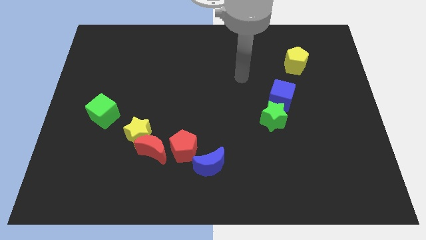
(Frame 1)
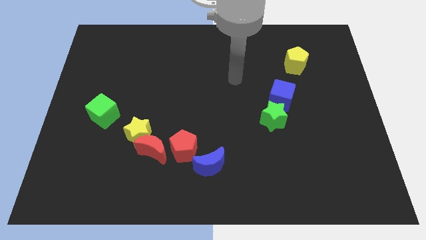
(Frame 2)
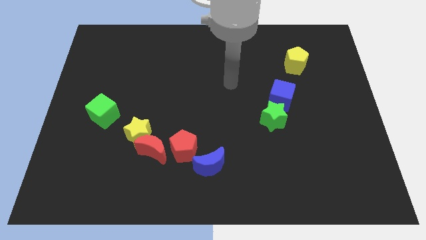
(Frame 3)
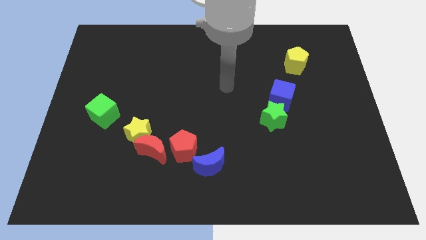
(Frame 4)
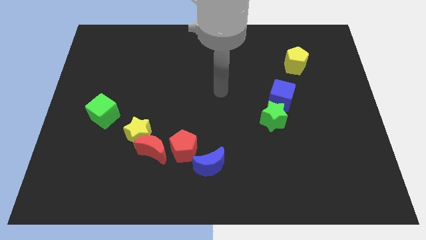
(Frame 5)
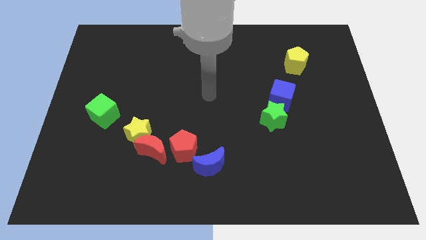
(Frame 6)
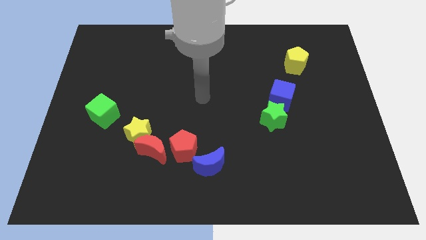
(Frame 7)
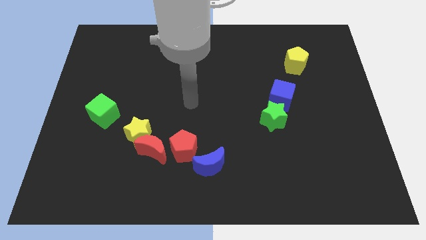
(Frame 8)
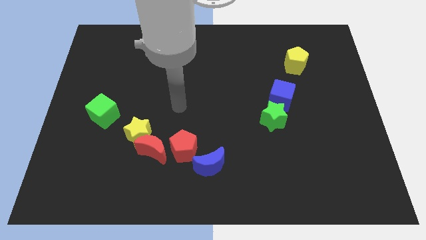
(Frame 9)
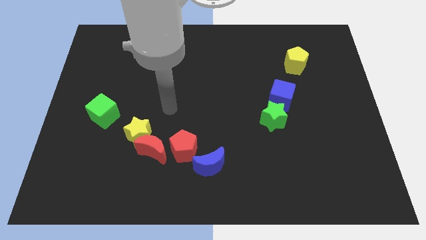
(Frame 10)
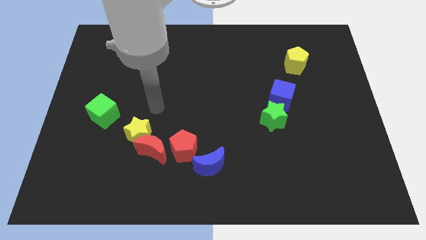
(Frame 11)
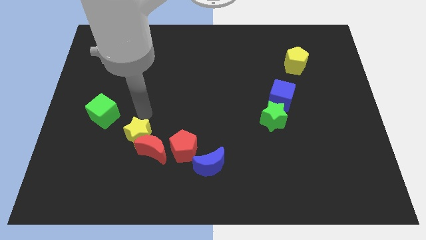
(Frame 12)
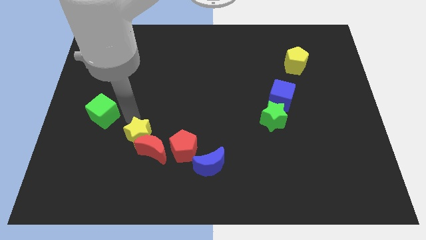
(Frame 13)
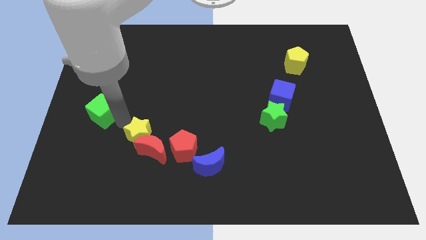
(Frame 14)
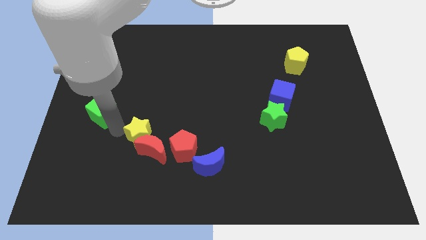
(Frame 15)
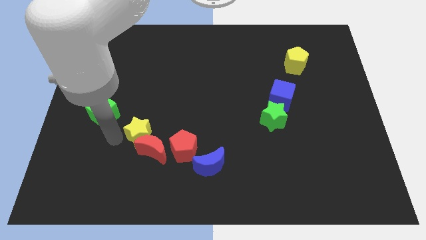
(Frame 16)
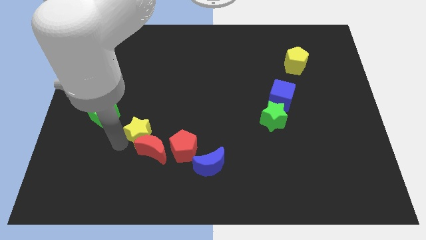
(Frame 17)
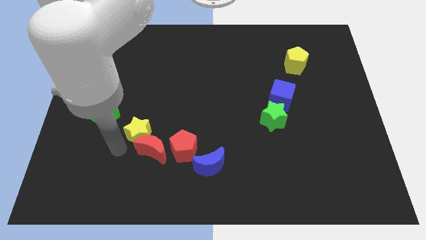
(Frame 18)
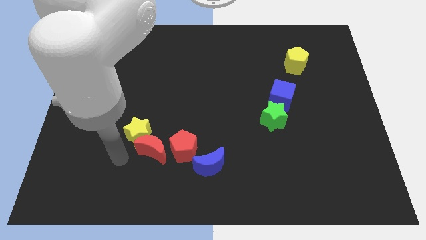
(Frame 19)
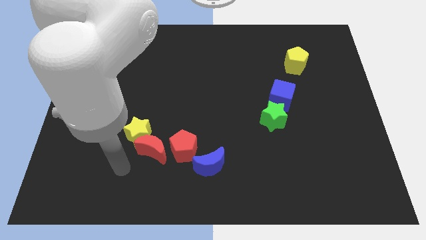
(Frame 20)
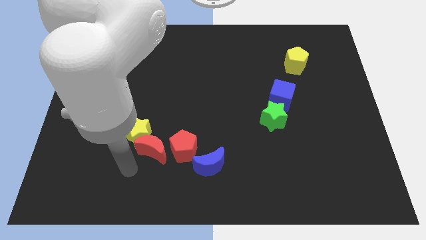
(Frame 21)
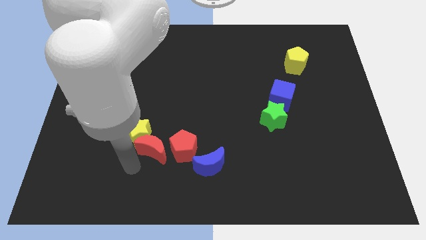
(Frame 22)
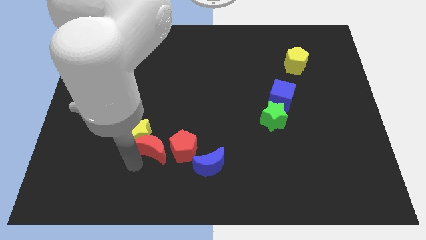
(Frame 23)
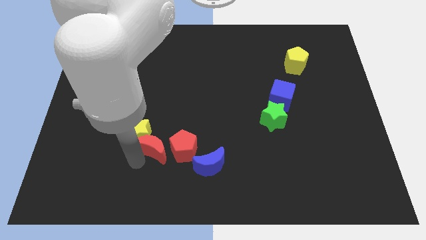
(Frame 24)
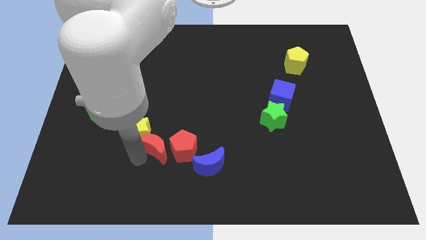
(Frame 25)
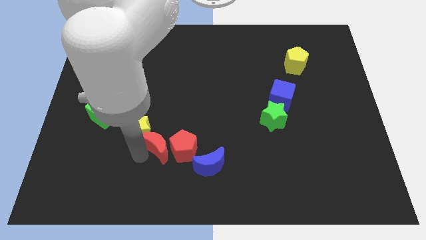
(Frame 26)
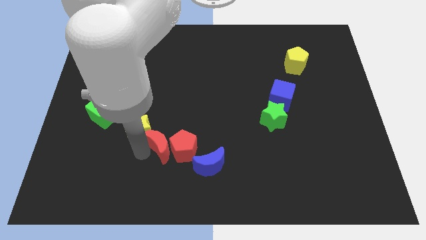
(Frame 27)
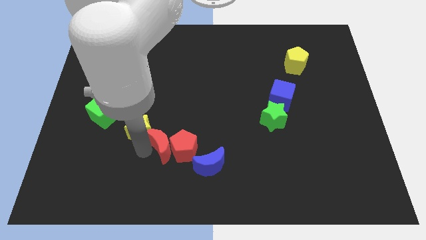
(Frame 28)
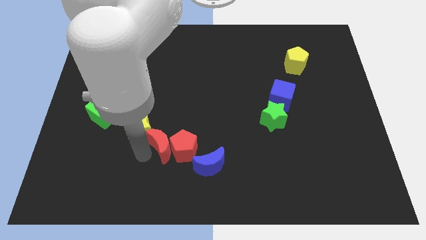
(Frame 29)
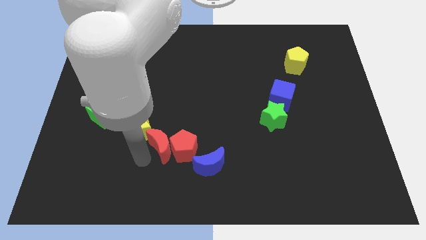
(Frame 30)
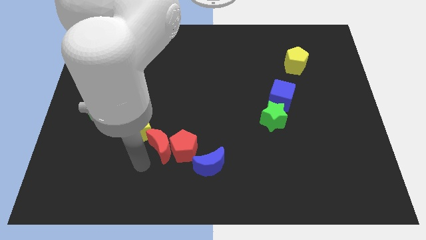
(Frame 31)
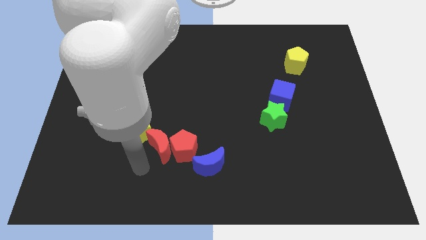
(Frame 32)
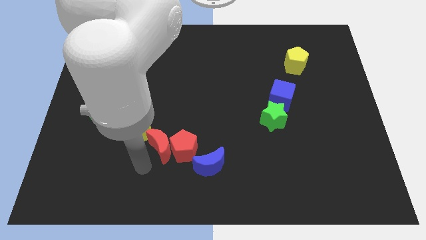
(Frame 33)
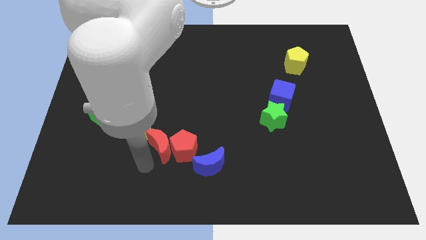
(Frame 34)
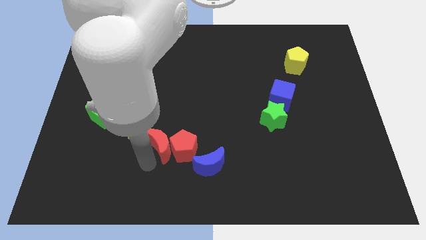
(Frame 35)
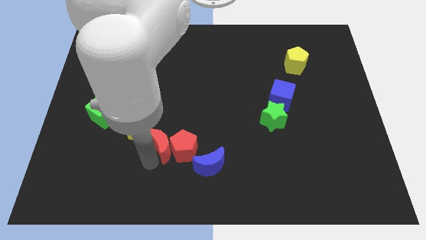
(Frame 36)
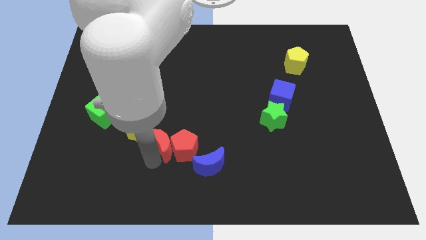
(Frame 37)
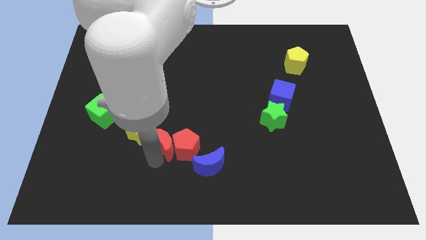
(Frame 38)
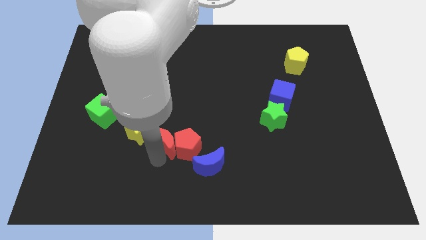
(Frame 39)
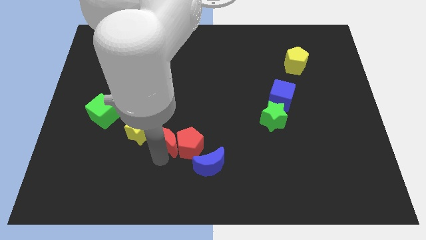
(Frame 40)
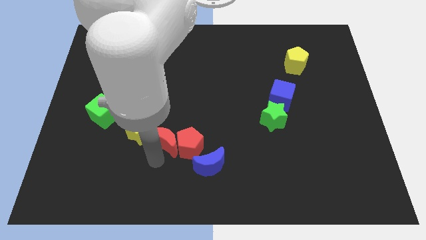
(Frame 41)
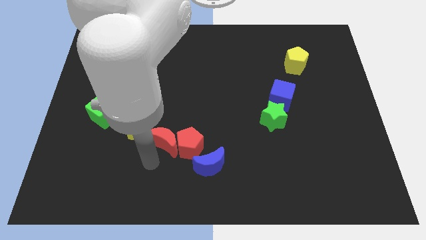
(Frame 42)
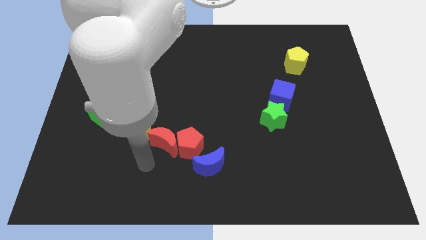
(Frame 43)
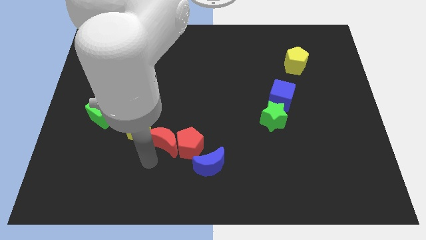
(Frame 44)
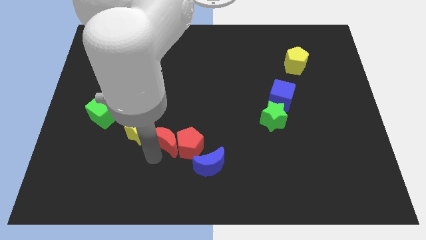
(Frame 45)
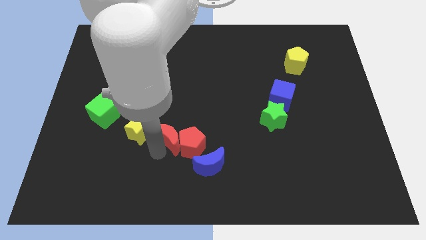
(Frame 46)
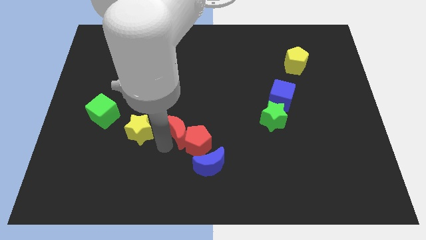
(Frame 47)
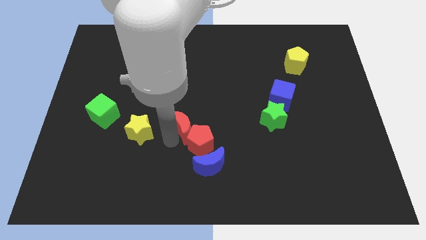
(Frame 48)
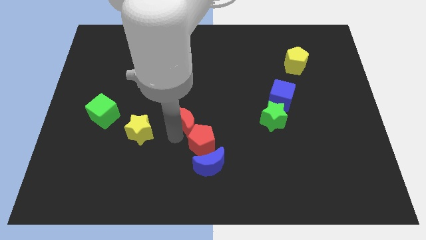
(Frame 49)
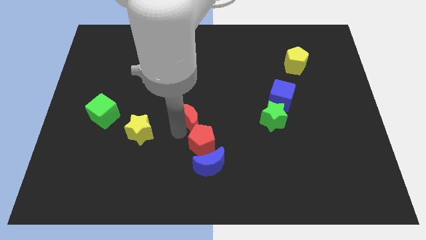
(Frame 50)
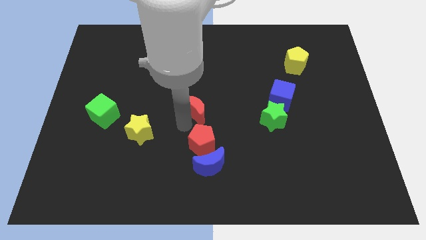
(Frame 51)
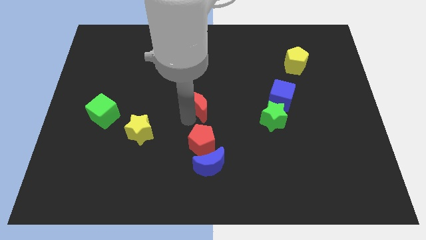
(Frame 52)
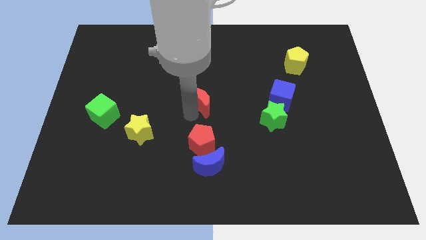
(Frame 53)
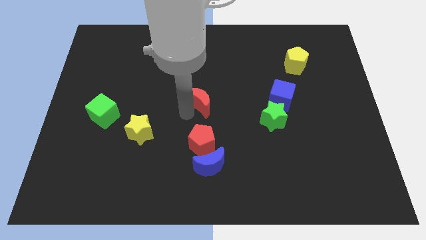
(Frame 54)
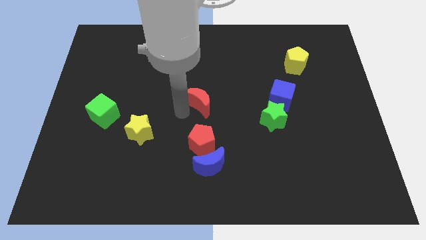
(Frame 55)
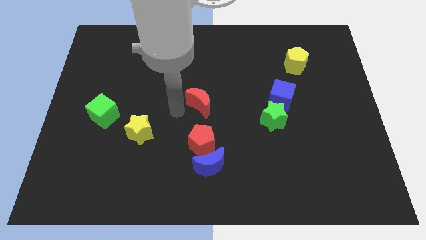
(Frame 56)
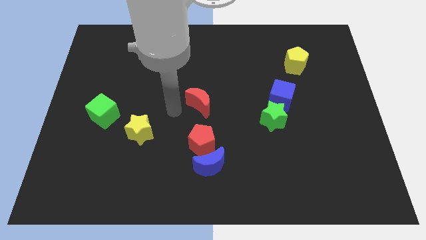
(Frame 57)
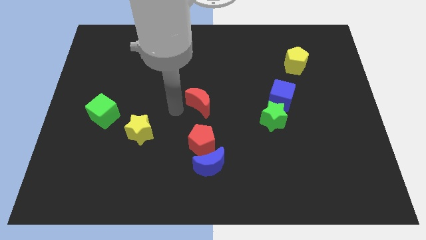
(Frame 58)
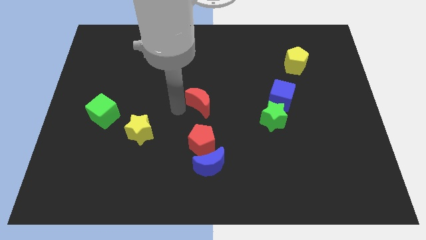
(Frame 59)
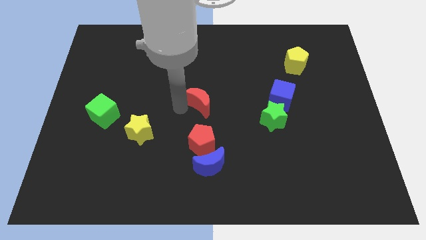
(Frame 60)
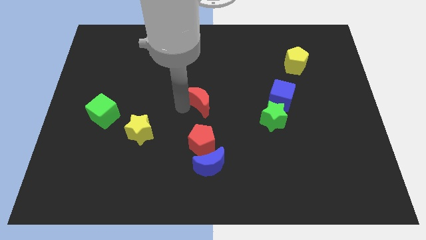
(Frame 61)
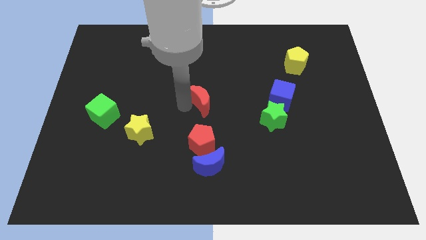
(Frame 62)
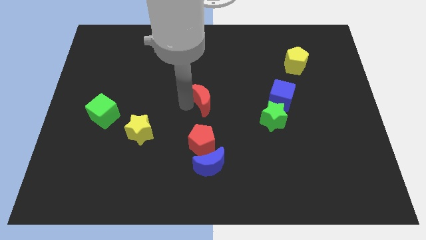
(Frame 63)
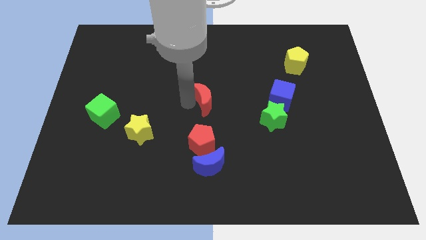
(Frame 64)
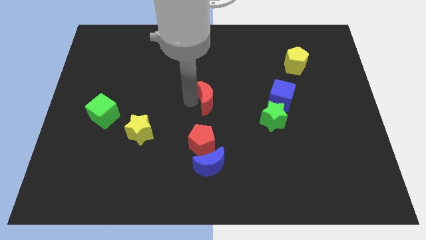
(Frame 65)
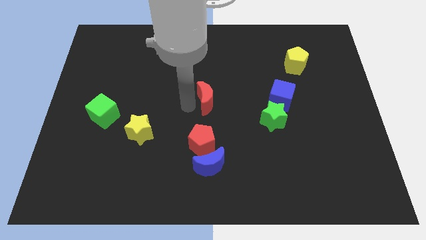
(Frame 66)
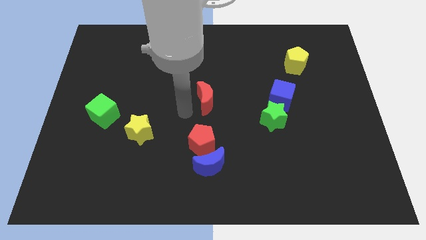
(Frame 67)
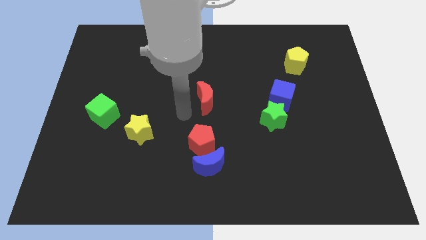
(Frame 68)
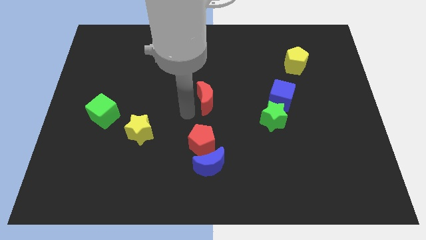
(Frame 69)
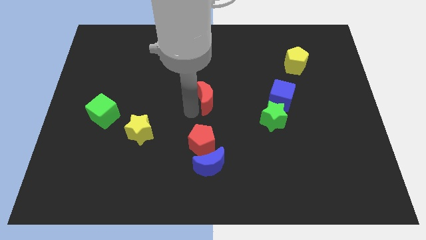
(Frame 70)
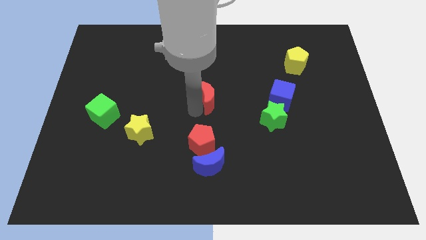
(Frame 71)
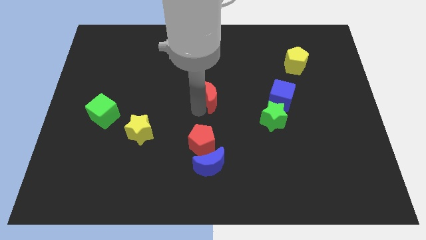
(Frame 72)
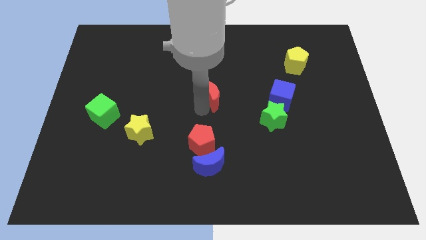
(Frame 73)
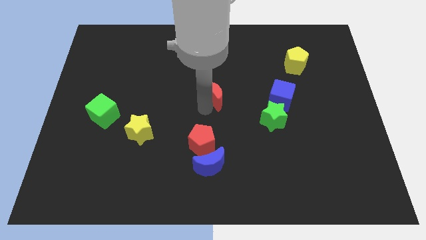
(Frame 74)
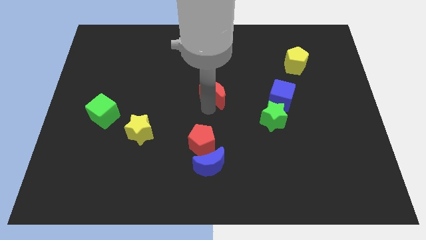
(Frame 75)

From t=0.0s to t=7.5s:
slide the red moon up and right diagonally

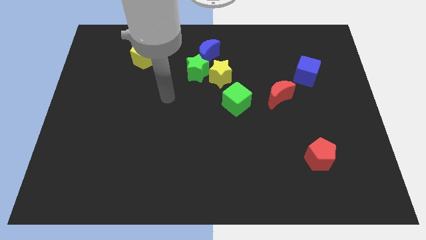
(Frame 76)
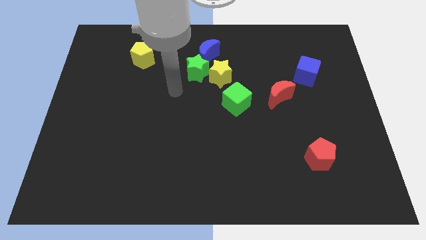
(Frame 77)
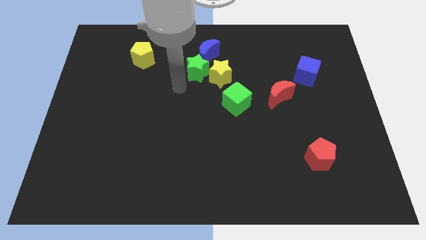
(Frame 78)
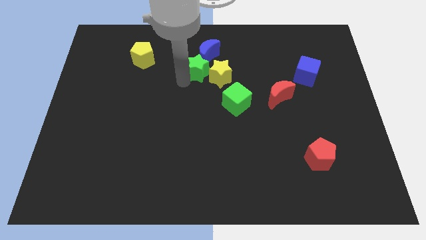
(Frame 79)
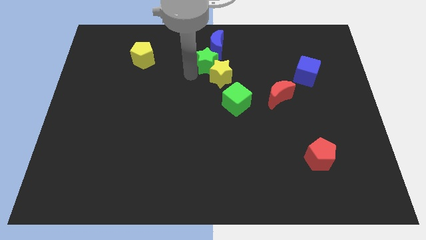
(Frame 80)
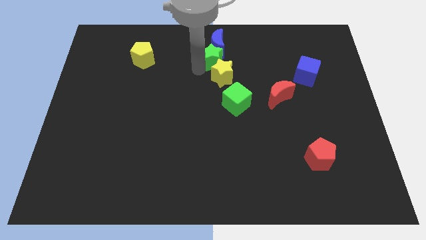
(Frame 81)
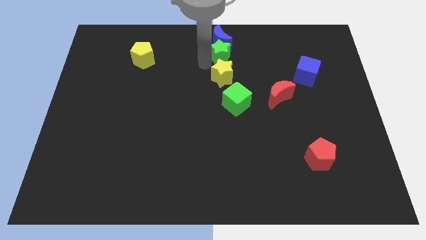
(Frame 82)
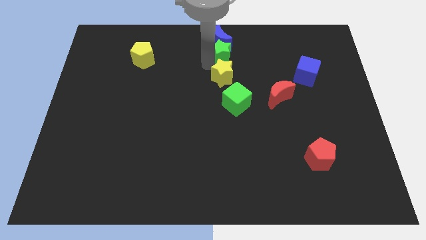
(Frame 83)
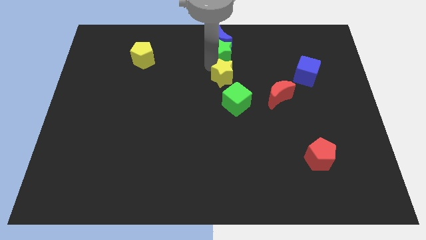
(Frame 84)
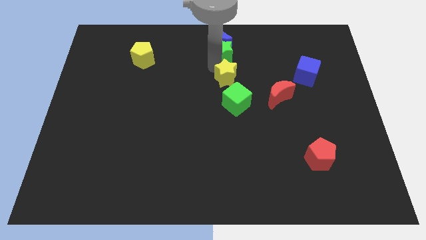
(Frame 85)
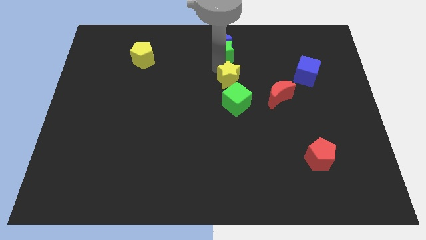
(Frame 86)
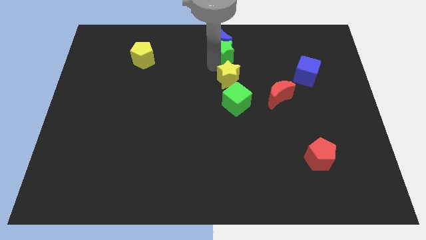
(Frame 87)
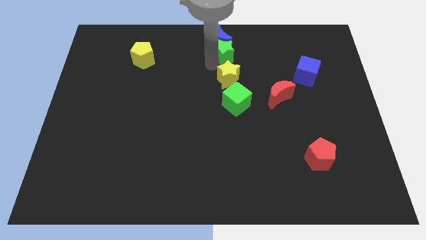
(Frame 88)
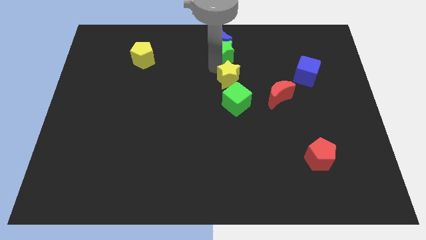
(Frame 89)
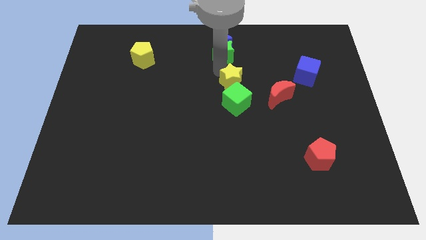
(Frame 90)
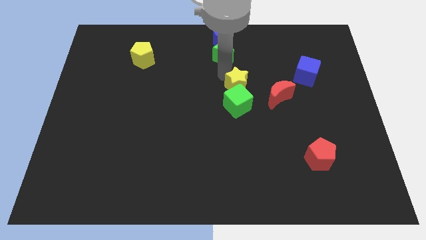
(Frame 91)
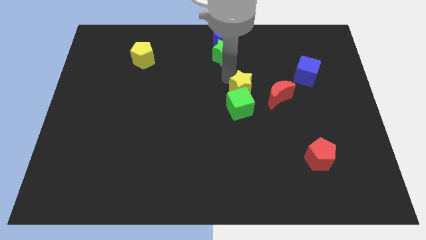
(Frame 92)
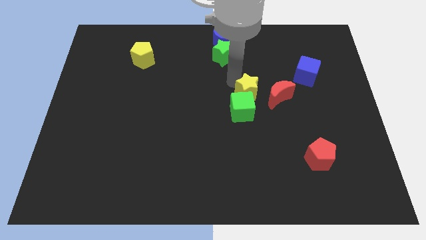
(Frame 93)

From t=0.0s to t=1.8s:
slightly push the yellow star down and to the right diagonally
